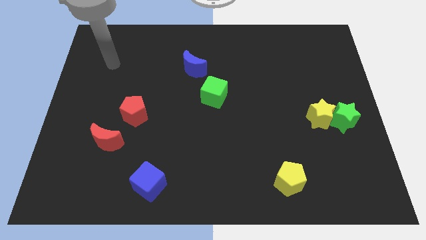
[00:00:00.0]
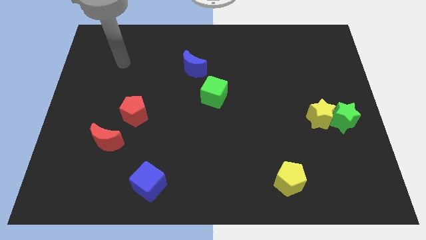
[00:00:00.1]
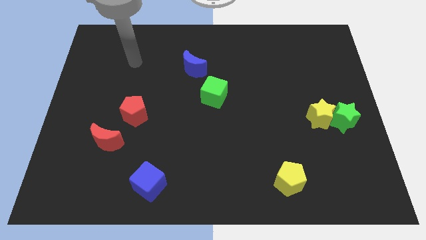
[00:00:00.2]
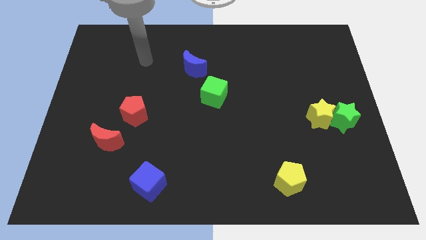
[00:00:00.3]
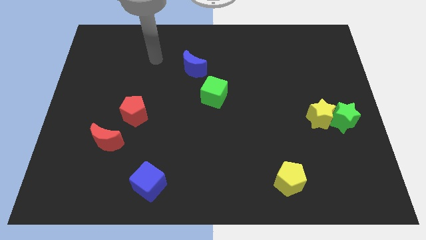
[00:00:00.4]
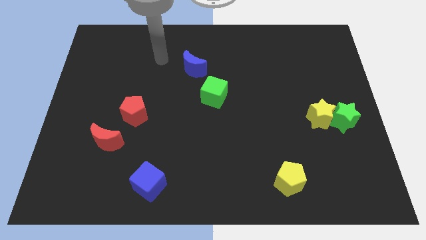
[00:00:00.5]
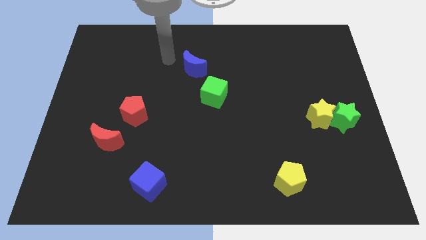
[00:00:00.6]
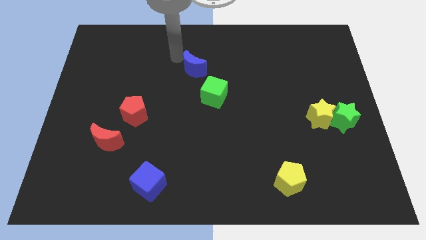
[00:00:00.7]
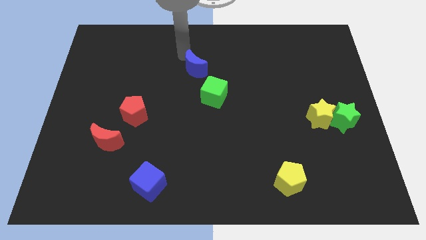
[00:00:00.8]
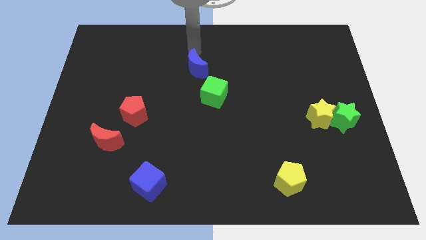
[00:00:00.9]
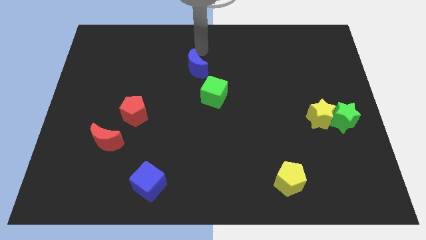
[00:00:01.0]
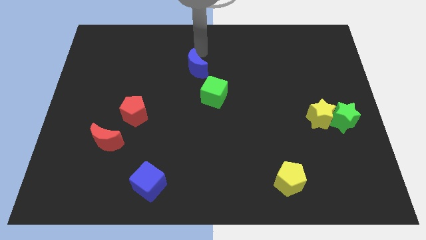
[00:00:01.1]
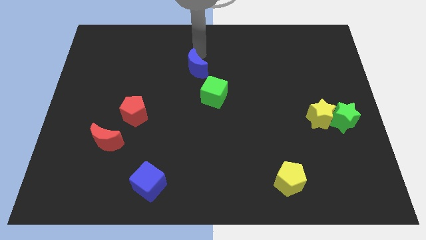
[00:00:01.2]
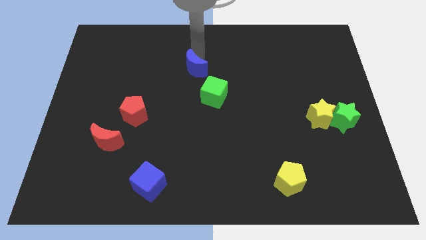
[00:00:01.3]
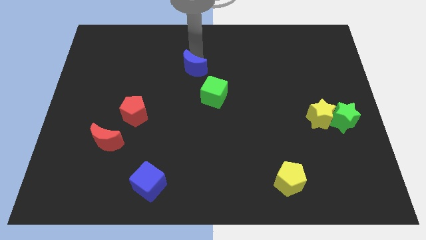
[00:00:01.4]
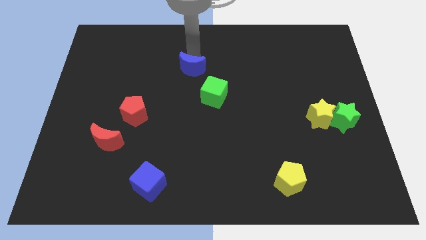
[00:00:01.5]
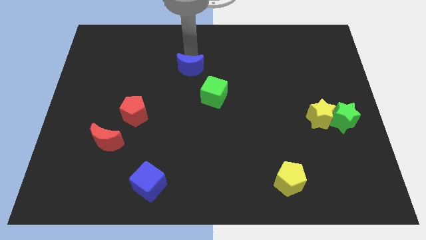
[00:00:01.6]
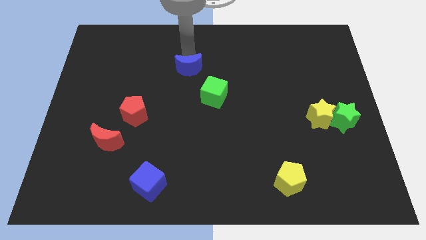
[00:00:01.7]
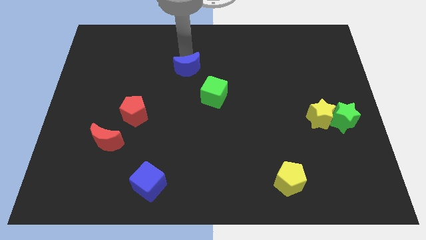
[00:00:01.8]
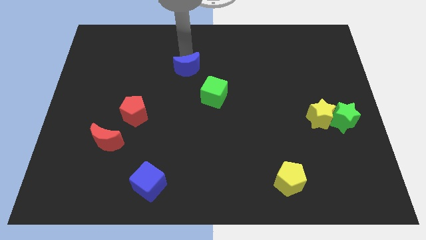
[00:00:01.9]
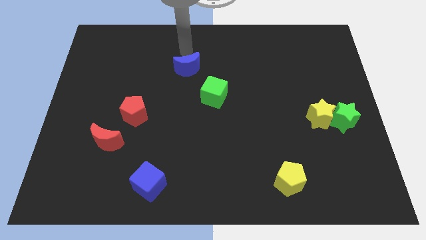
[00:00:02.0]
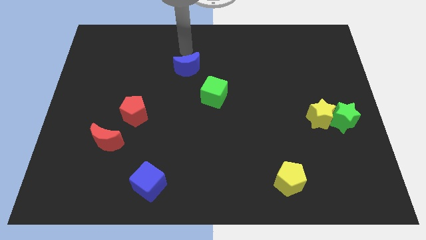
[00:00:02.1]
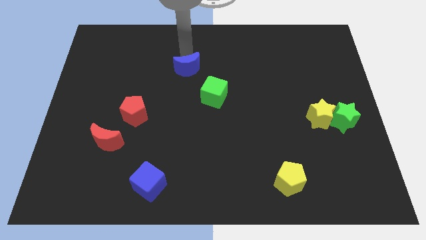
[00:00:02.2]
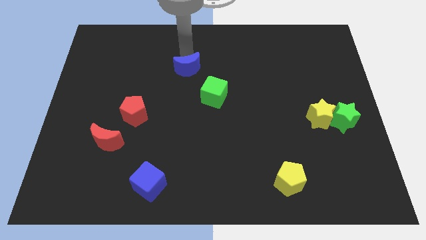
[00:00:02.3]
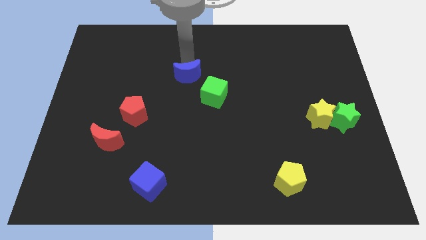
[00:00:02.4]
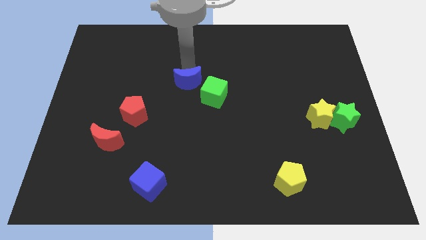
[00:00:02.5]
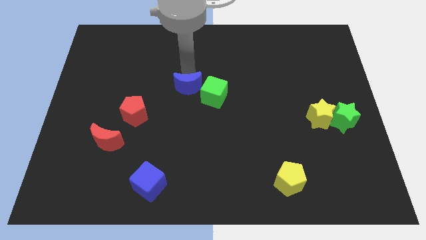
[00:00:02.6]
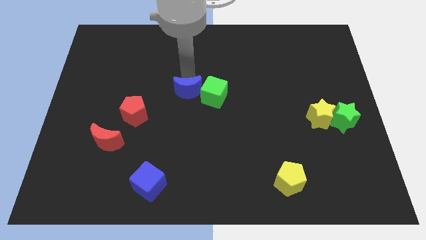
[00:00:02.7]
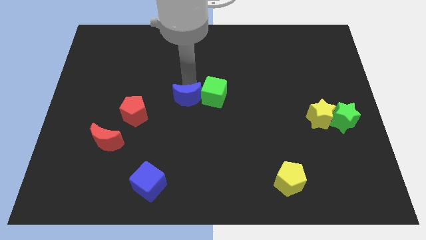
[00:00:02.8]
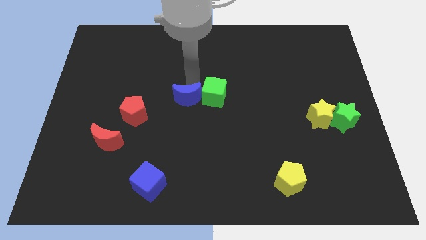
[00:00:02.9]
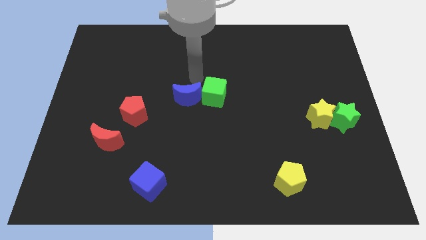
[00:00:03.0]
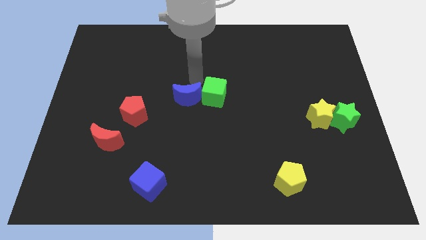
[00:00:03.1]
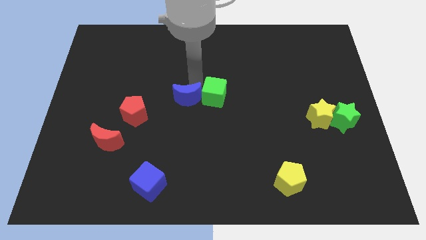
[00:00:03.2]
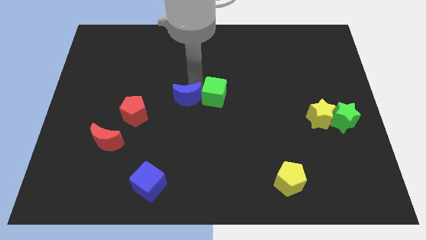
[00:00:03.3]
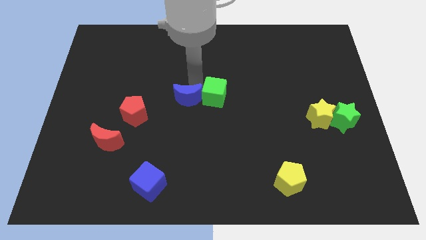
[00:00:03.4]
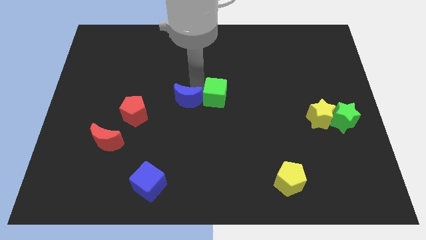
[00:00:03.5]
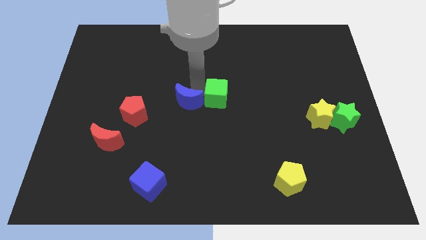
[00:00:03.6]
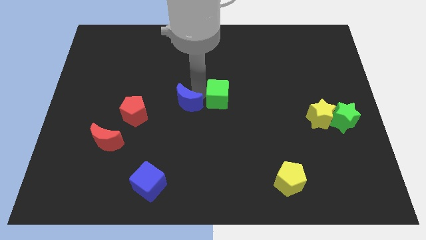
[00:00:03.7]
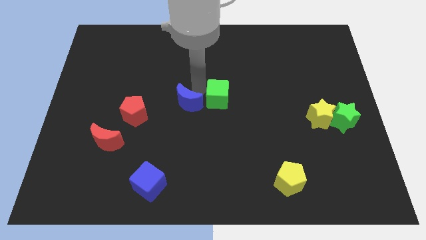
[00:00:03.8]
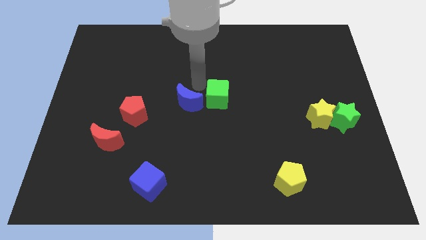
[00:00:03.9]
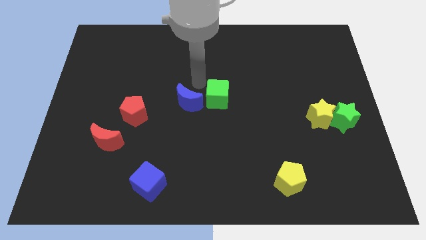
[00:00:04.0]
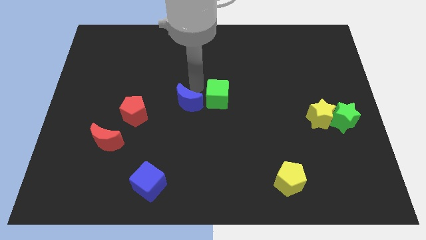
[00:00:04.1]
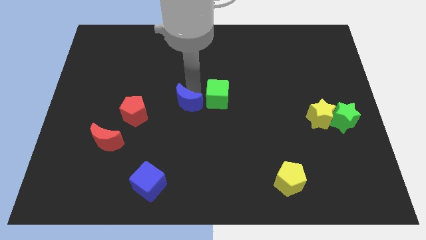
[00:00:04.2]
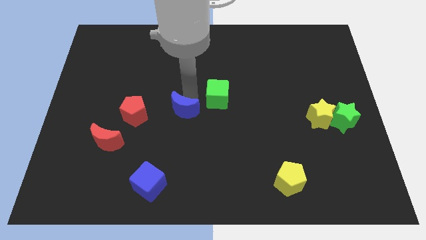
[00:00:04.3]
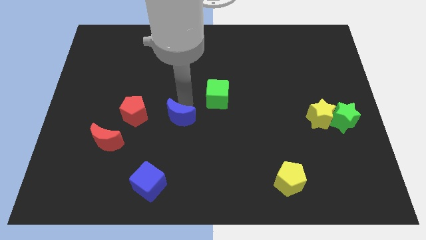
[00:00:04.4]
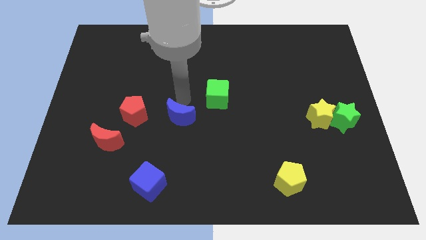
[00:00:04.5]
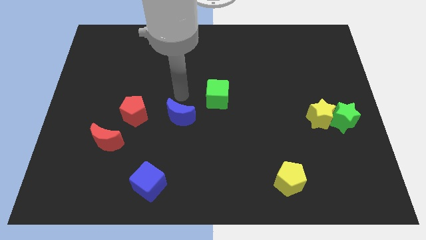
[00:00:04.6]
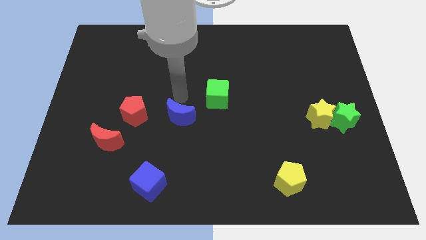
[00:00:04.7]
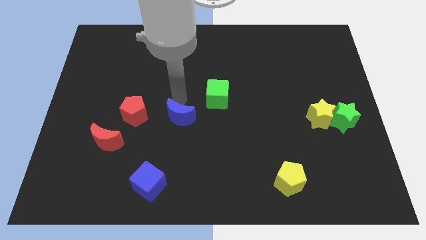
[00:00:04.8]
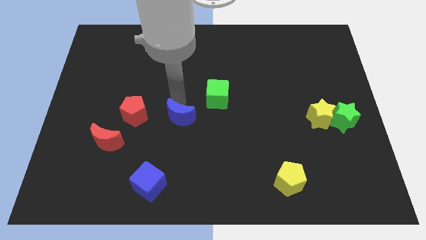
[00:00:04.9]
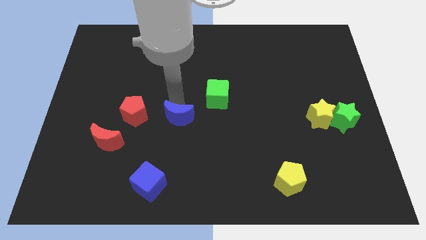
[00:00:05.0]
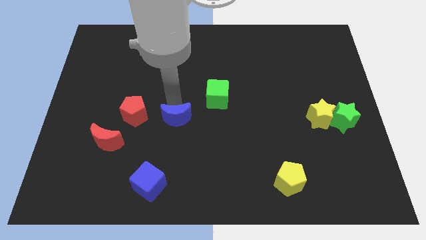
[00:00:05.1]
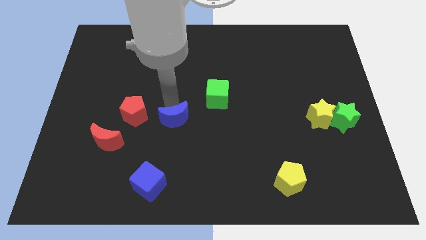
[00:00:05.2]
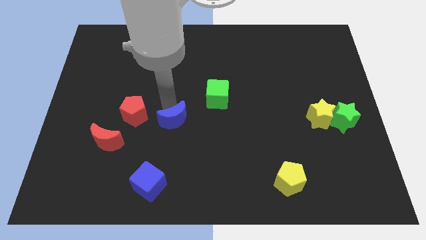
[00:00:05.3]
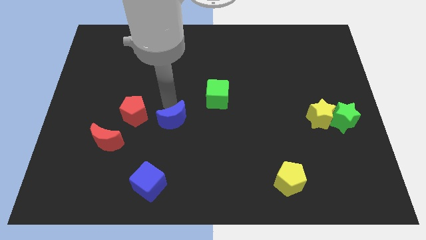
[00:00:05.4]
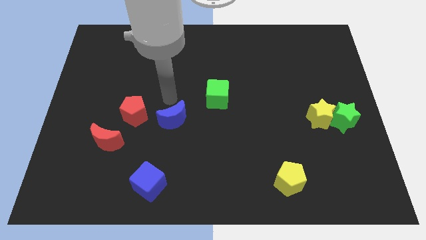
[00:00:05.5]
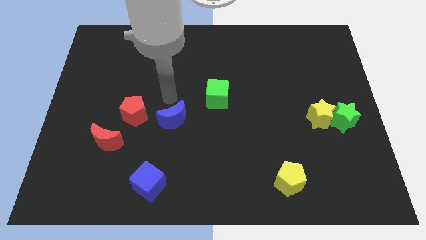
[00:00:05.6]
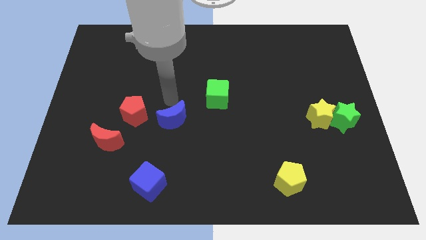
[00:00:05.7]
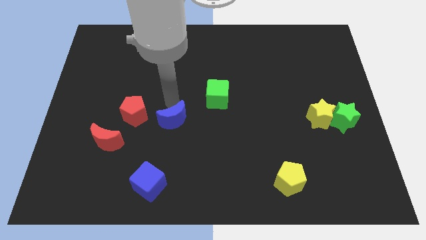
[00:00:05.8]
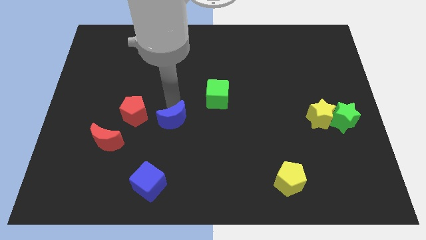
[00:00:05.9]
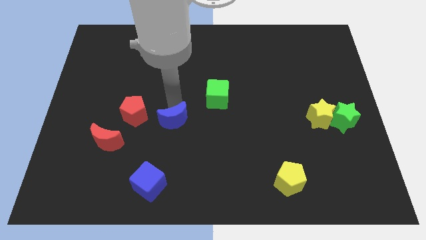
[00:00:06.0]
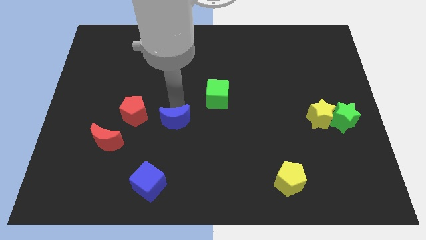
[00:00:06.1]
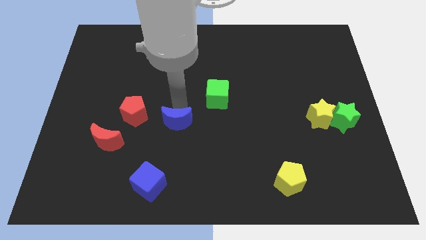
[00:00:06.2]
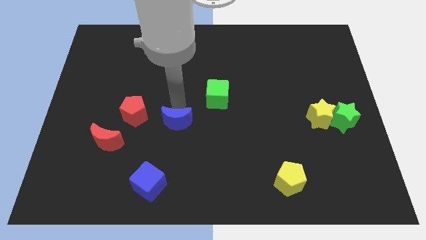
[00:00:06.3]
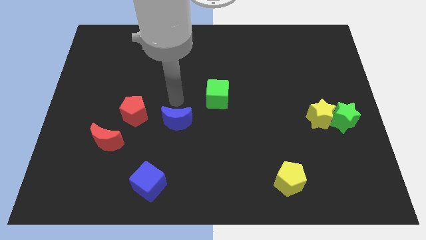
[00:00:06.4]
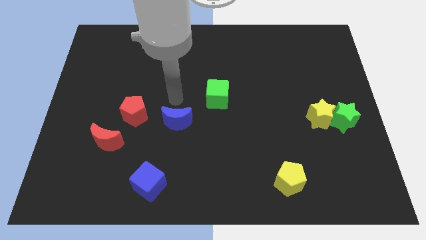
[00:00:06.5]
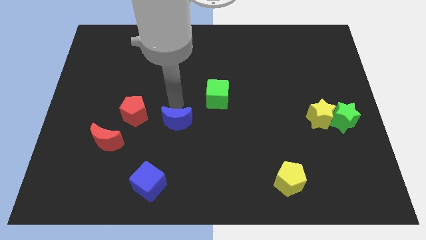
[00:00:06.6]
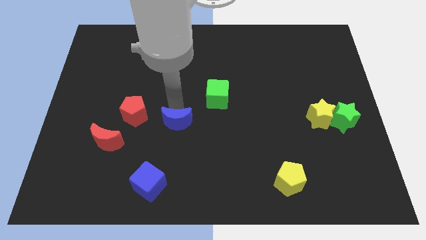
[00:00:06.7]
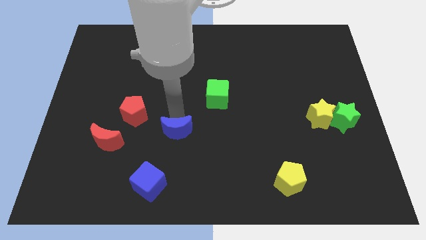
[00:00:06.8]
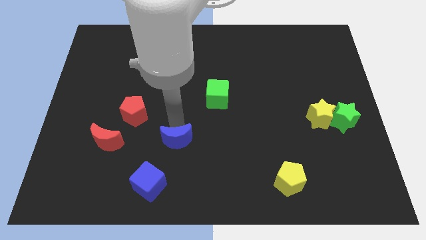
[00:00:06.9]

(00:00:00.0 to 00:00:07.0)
slide the blue moon downwards

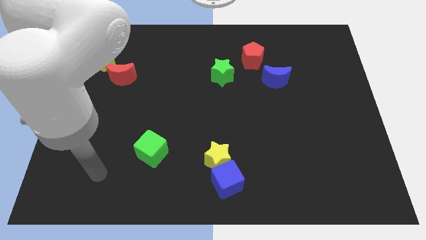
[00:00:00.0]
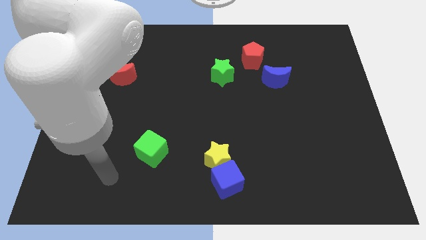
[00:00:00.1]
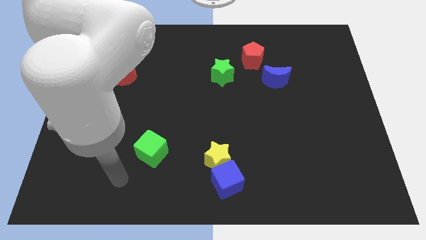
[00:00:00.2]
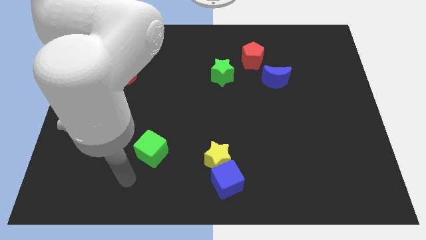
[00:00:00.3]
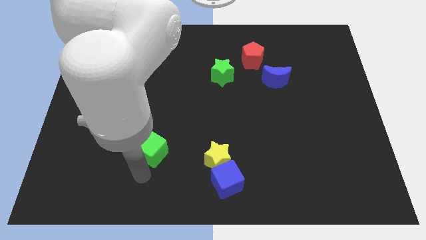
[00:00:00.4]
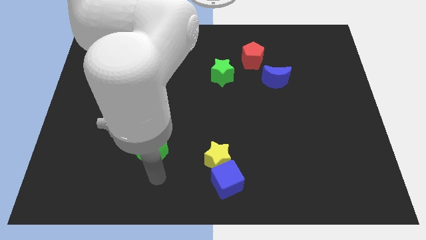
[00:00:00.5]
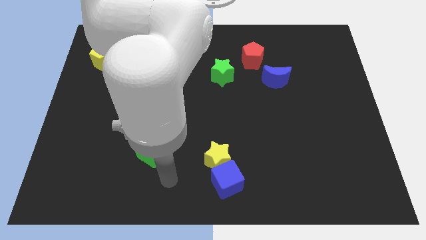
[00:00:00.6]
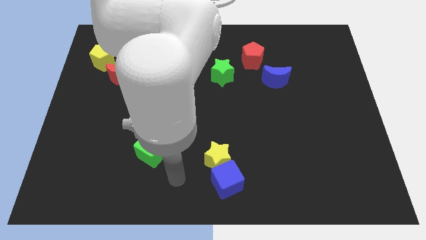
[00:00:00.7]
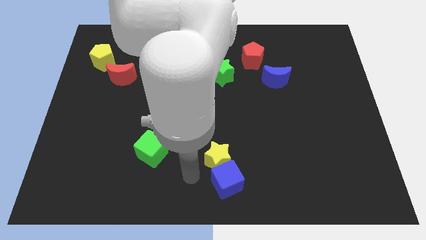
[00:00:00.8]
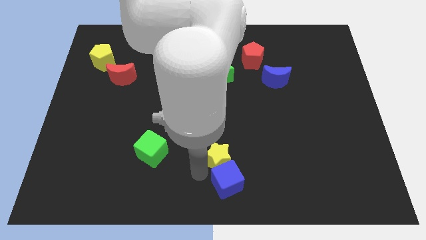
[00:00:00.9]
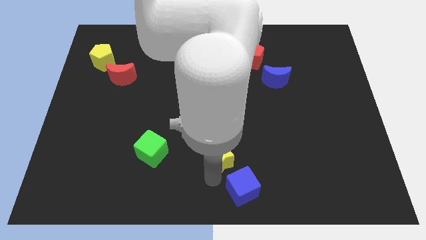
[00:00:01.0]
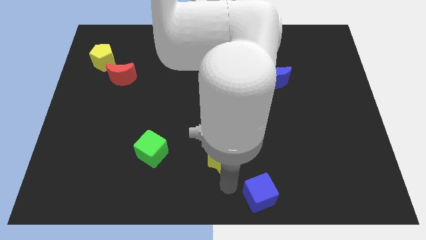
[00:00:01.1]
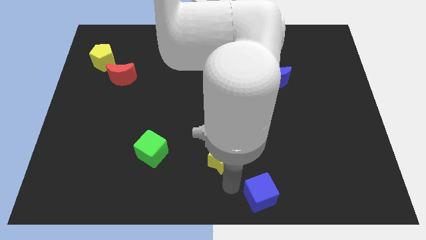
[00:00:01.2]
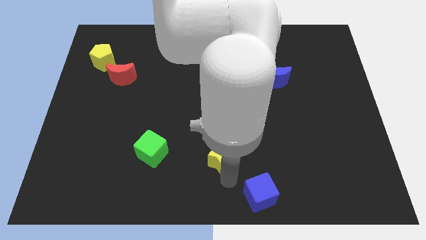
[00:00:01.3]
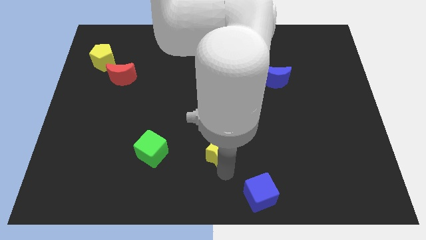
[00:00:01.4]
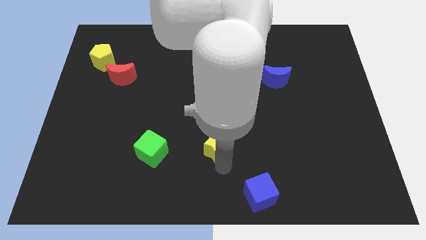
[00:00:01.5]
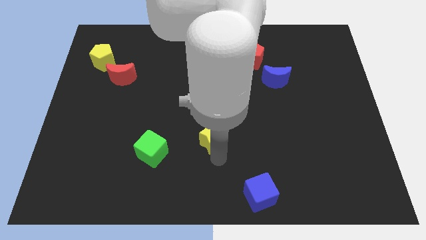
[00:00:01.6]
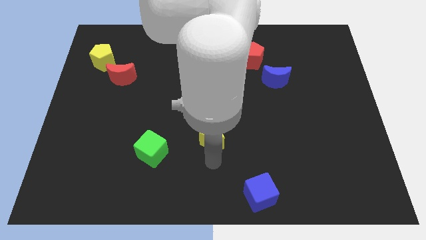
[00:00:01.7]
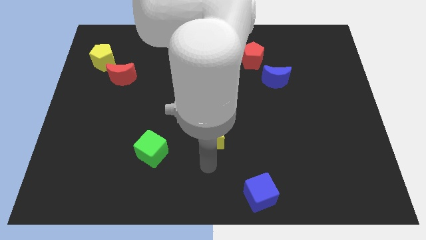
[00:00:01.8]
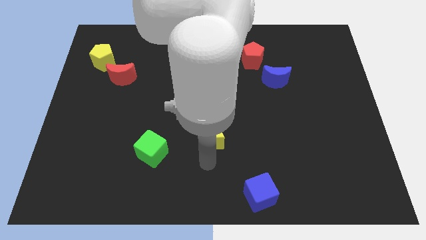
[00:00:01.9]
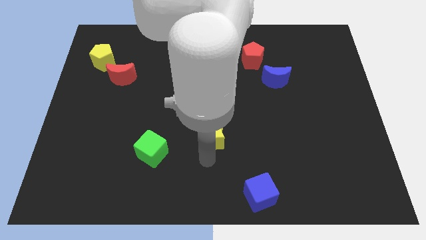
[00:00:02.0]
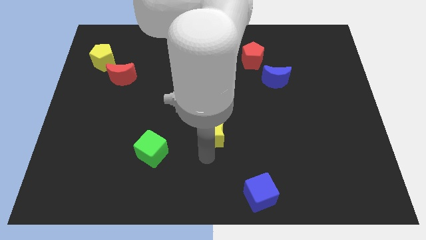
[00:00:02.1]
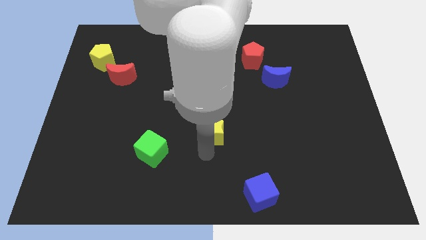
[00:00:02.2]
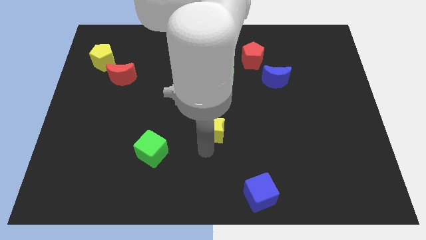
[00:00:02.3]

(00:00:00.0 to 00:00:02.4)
move the yellow star upwards a bit
